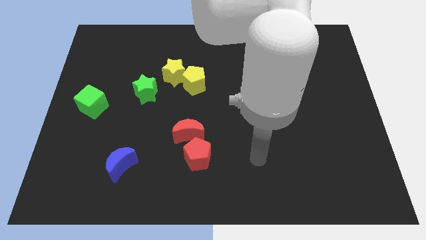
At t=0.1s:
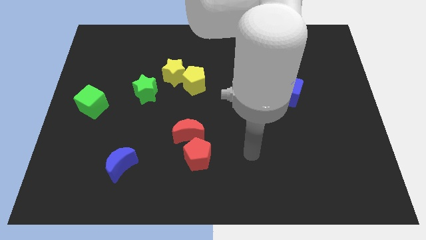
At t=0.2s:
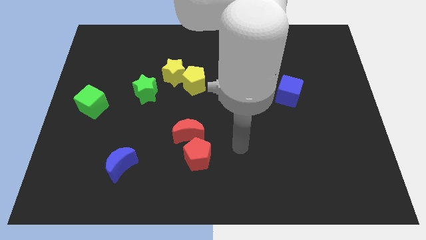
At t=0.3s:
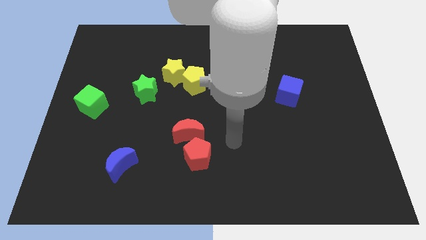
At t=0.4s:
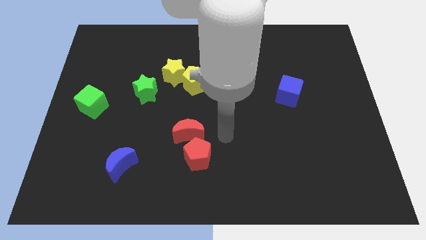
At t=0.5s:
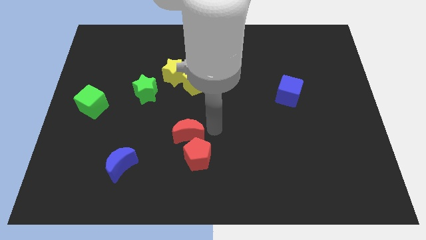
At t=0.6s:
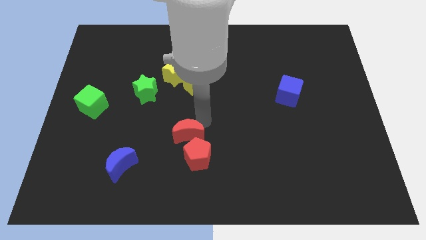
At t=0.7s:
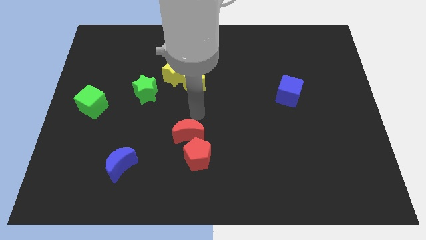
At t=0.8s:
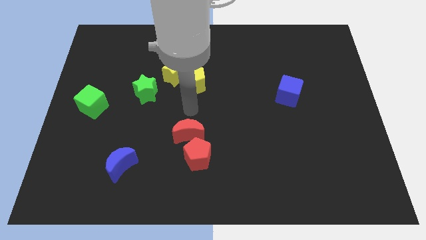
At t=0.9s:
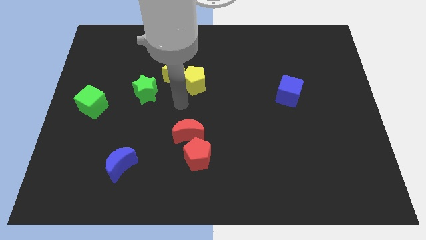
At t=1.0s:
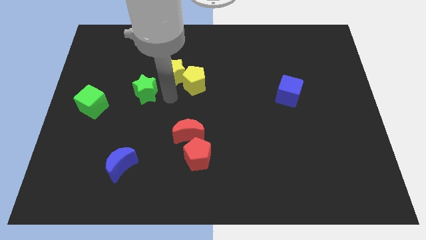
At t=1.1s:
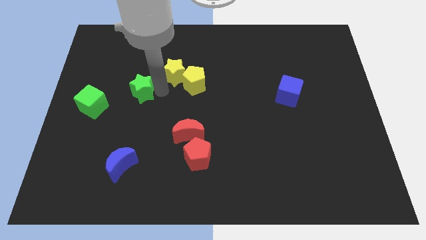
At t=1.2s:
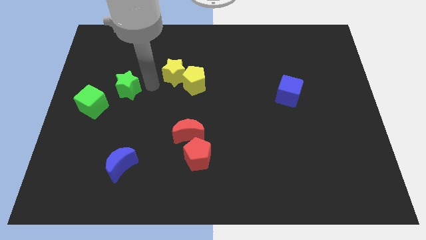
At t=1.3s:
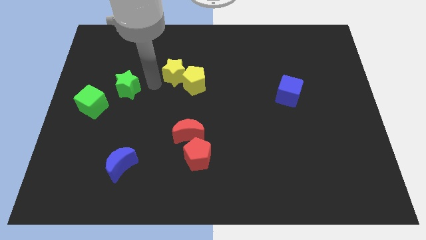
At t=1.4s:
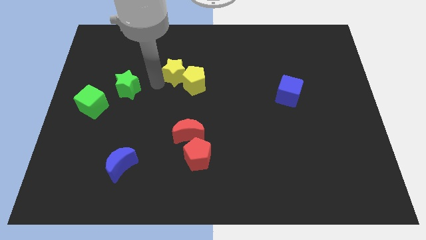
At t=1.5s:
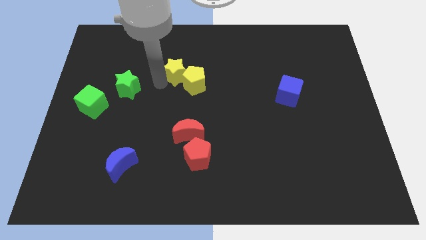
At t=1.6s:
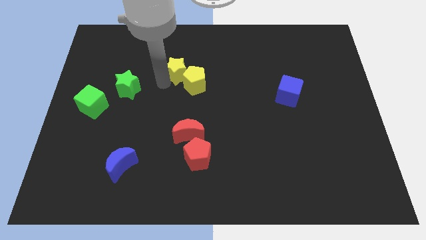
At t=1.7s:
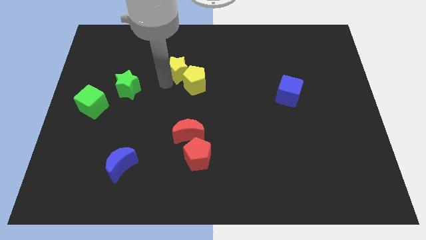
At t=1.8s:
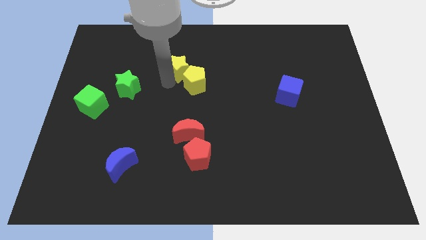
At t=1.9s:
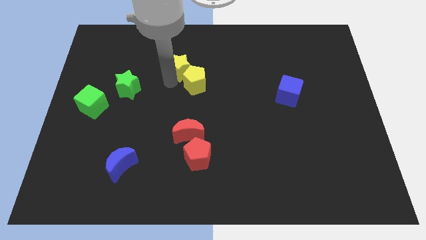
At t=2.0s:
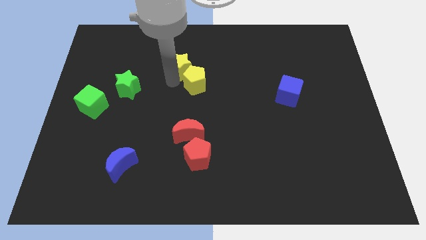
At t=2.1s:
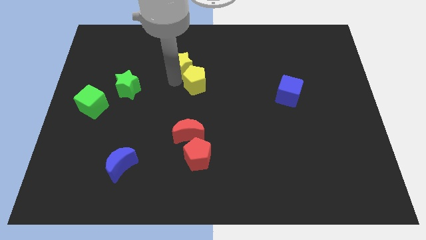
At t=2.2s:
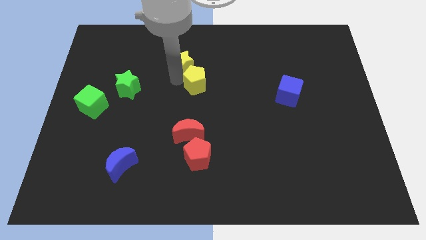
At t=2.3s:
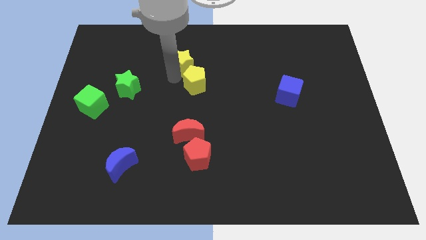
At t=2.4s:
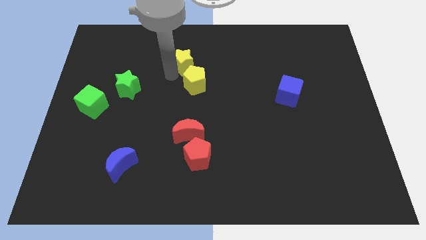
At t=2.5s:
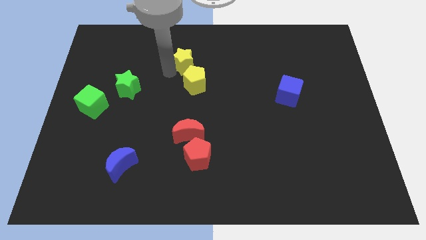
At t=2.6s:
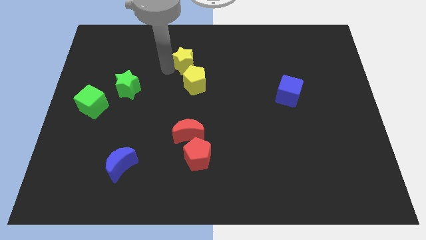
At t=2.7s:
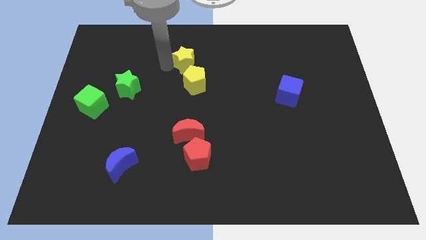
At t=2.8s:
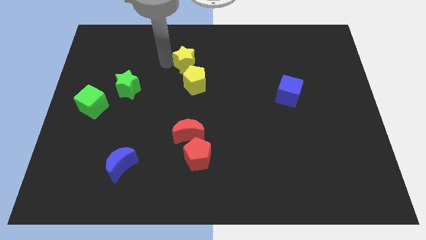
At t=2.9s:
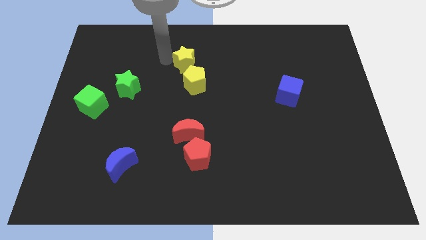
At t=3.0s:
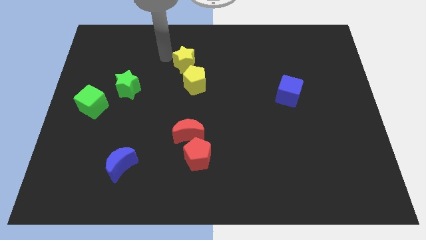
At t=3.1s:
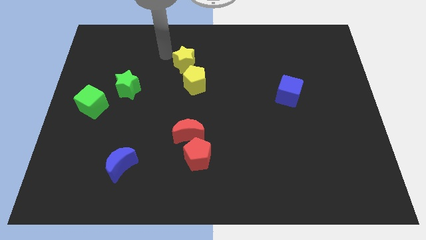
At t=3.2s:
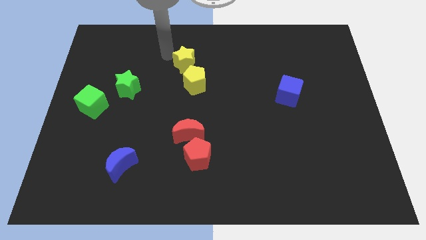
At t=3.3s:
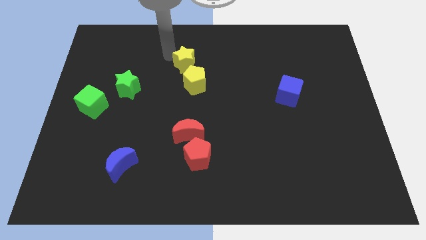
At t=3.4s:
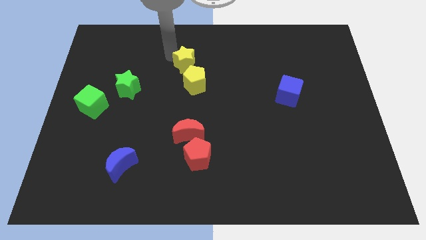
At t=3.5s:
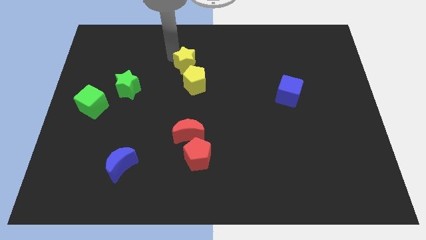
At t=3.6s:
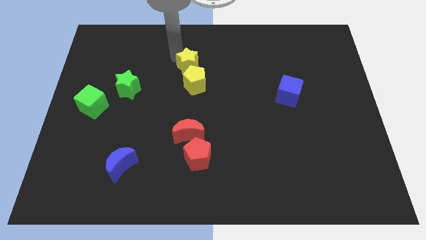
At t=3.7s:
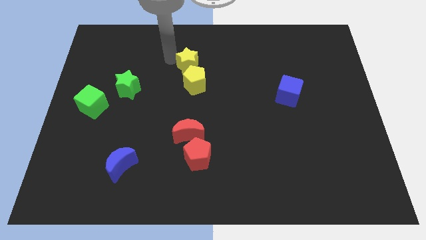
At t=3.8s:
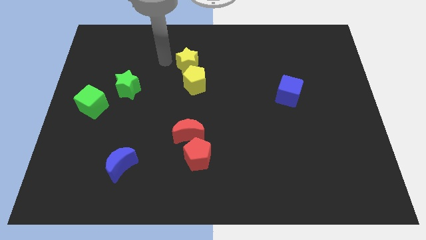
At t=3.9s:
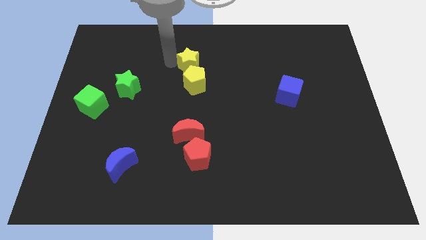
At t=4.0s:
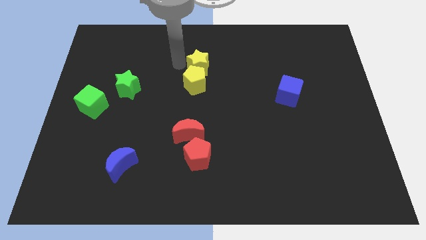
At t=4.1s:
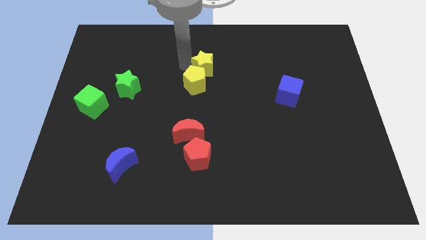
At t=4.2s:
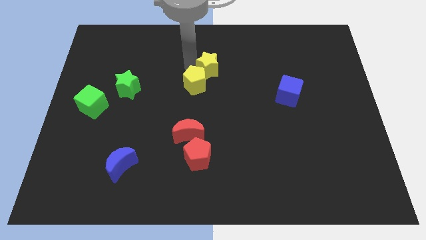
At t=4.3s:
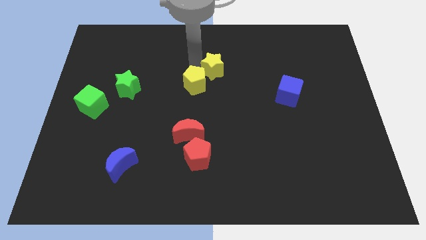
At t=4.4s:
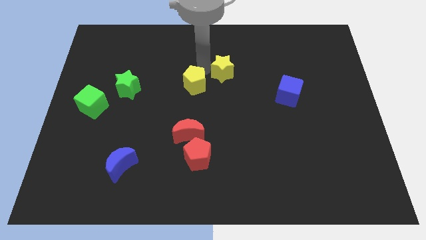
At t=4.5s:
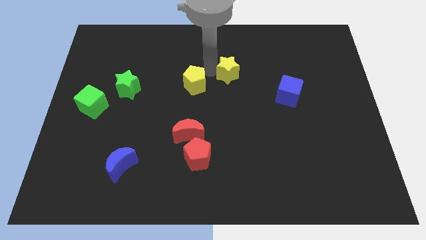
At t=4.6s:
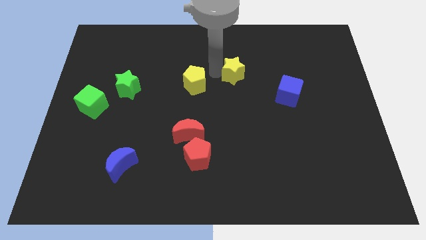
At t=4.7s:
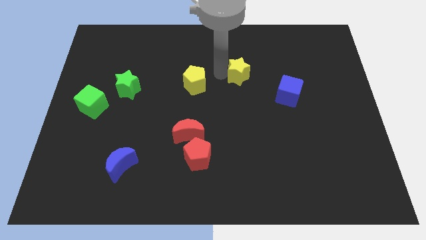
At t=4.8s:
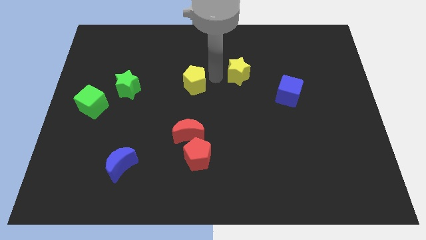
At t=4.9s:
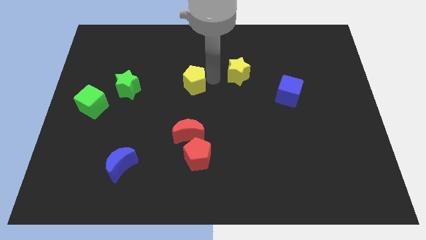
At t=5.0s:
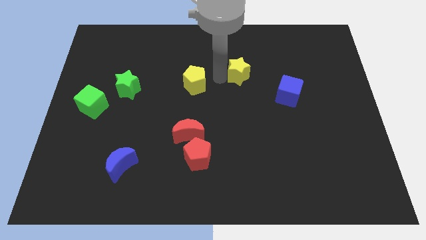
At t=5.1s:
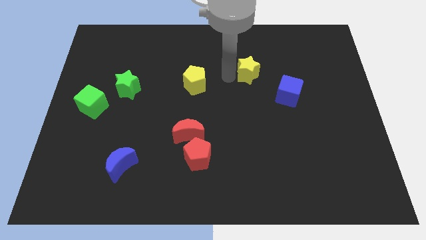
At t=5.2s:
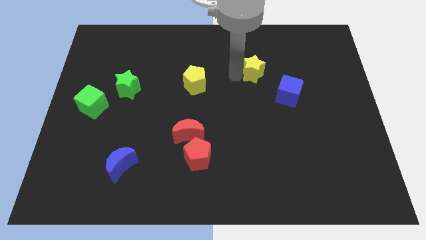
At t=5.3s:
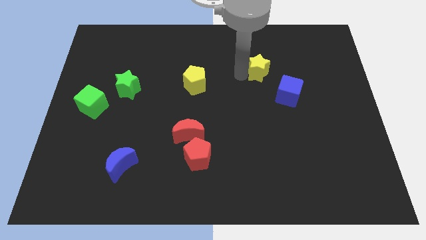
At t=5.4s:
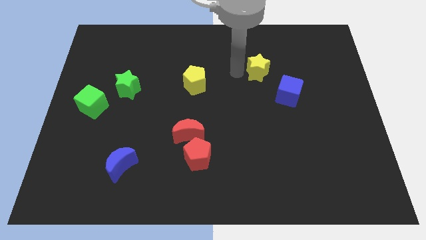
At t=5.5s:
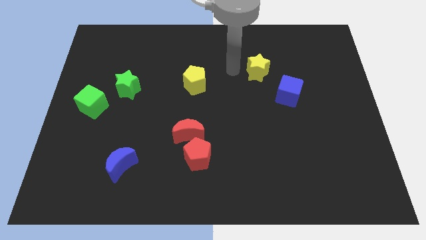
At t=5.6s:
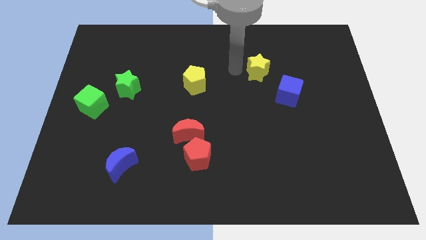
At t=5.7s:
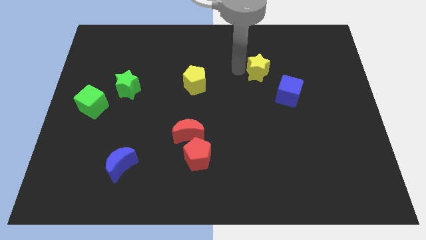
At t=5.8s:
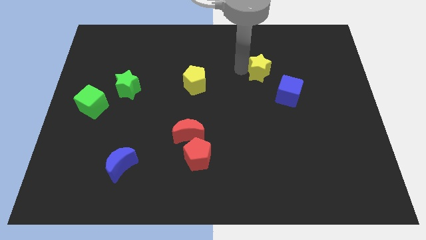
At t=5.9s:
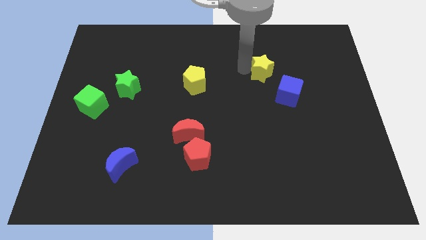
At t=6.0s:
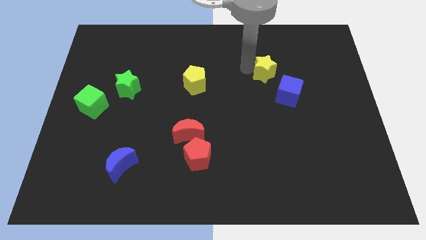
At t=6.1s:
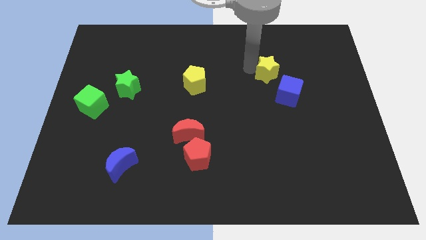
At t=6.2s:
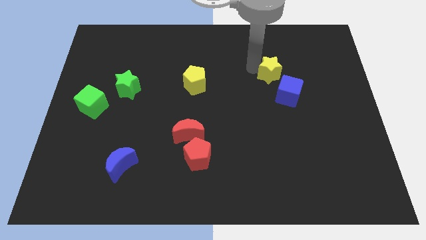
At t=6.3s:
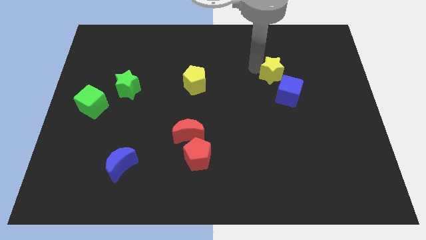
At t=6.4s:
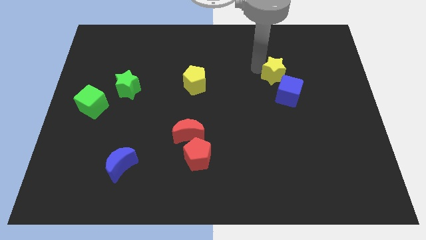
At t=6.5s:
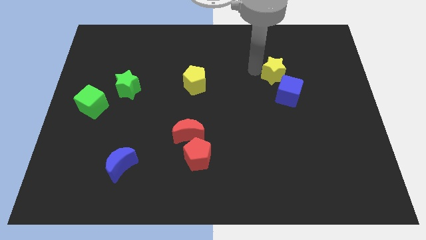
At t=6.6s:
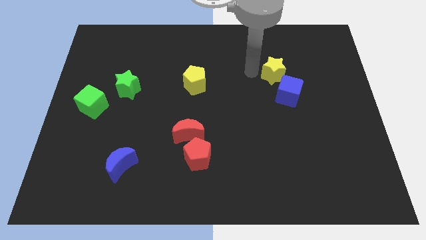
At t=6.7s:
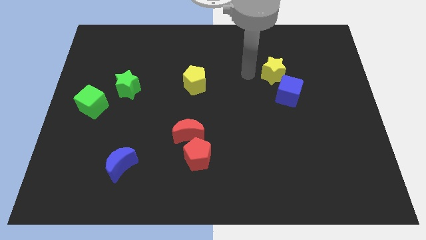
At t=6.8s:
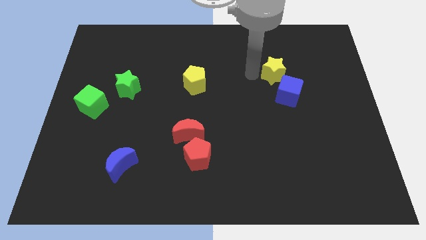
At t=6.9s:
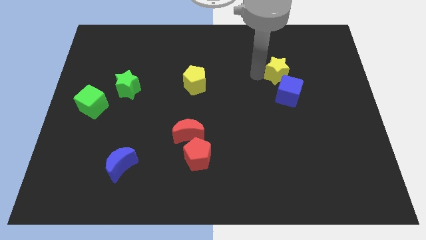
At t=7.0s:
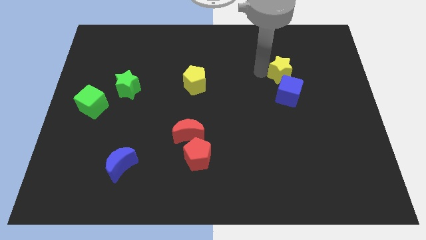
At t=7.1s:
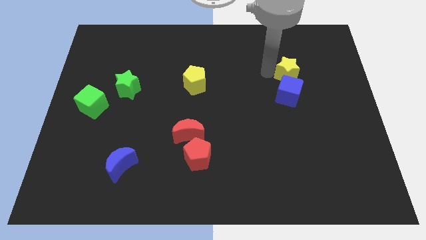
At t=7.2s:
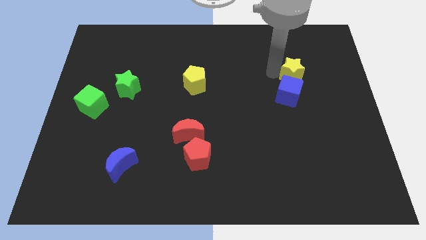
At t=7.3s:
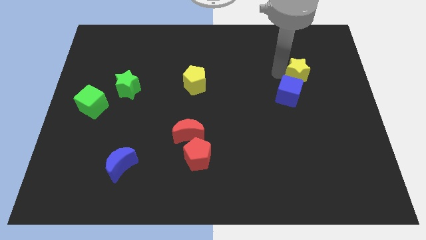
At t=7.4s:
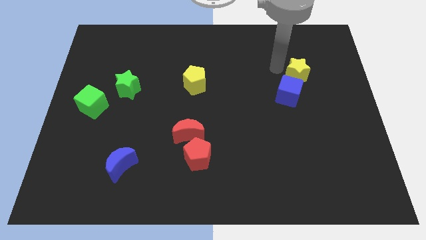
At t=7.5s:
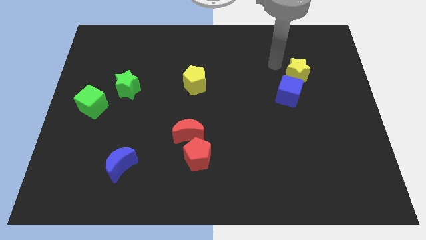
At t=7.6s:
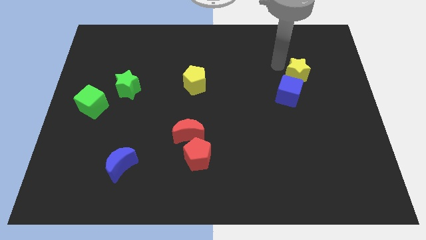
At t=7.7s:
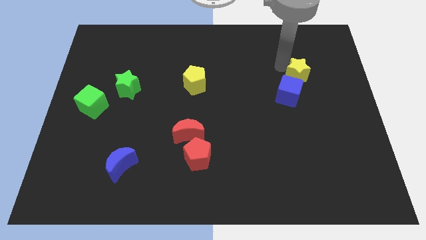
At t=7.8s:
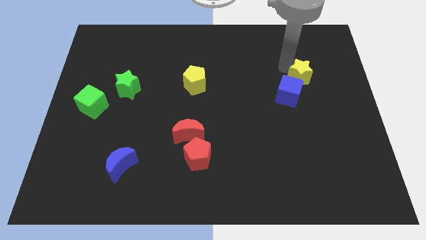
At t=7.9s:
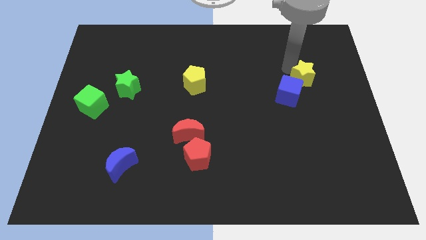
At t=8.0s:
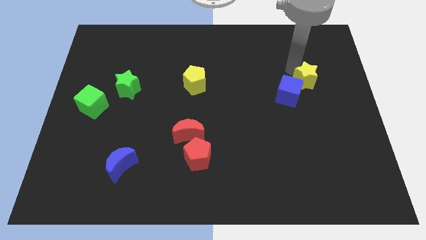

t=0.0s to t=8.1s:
move the yellow star right of the blue cube
